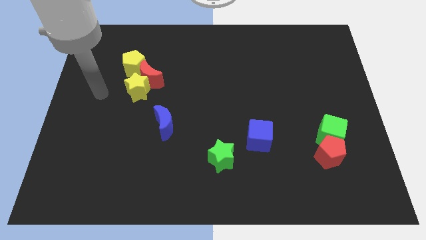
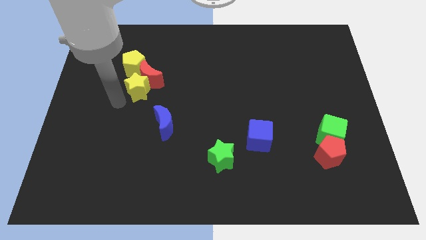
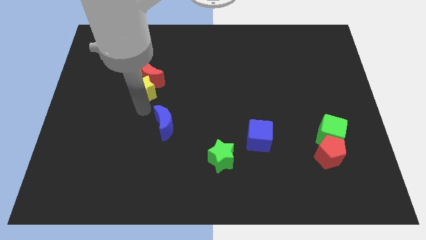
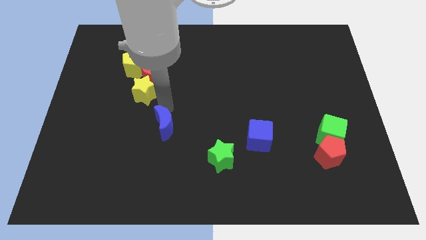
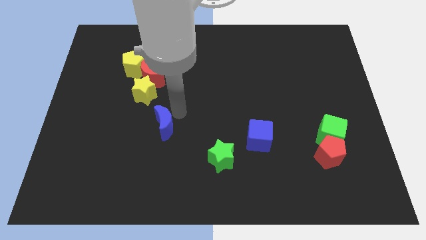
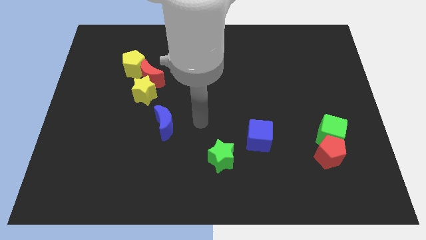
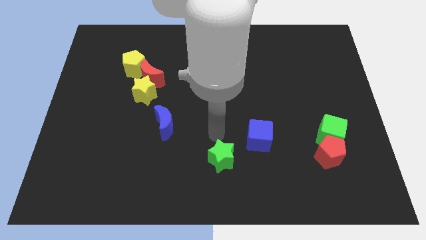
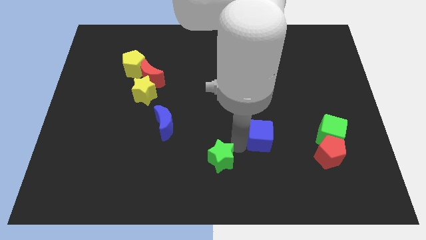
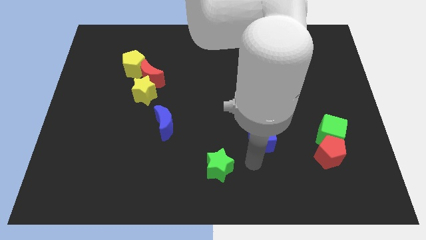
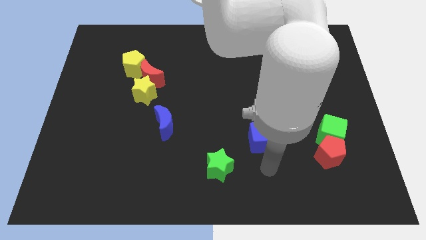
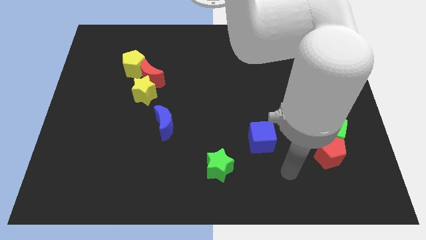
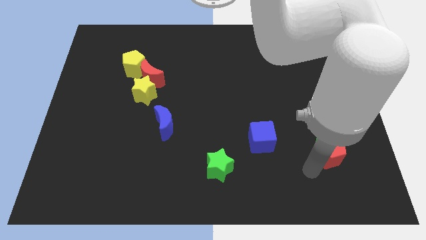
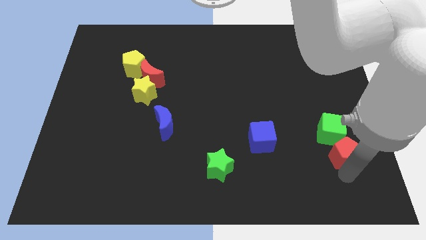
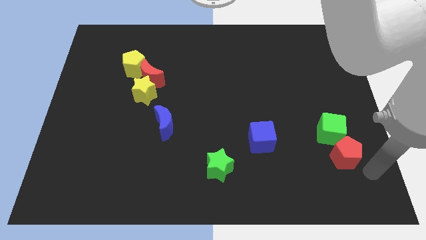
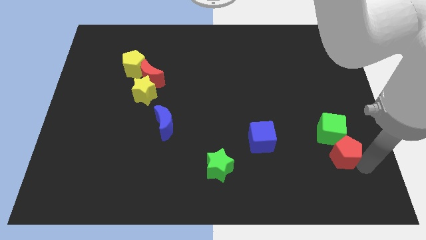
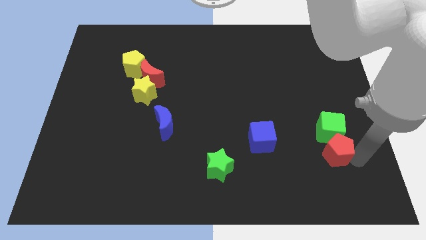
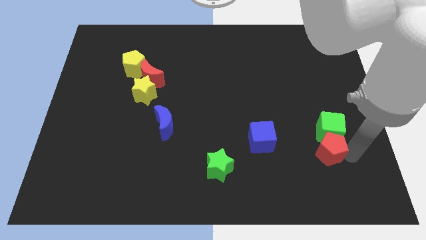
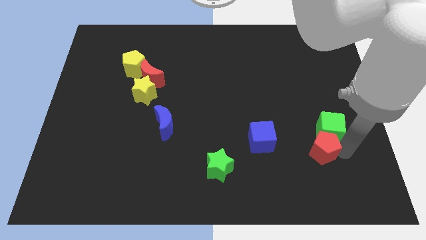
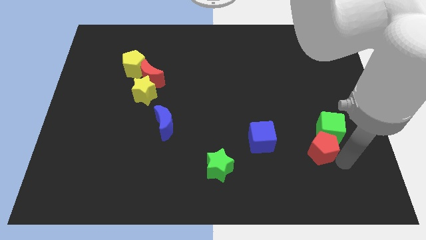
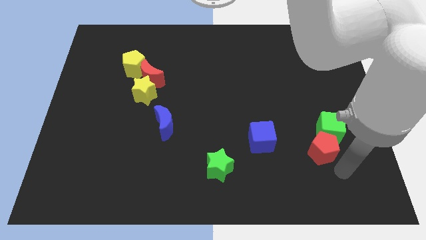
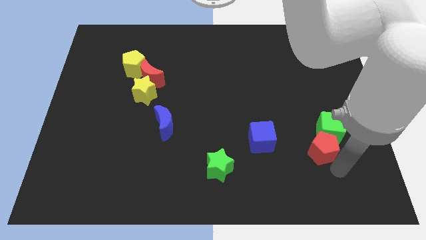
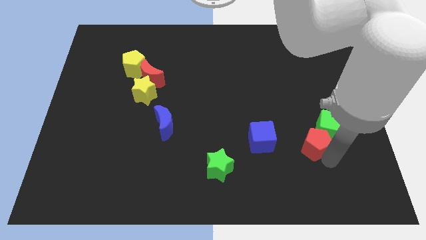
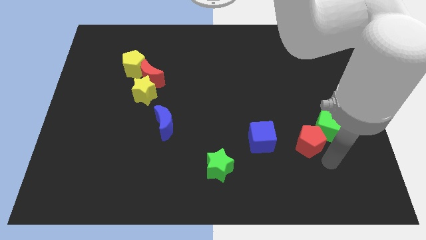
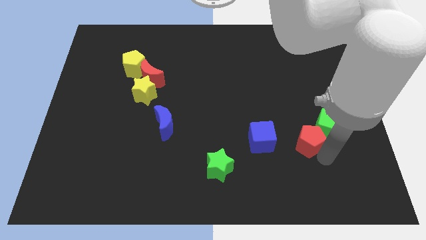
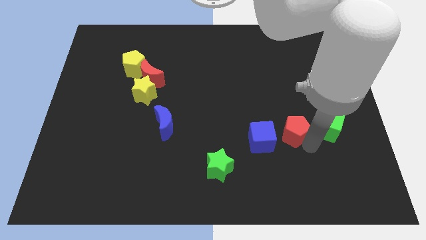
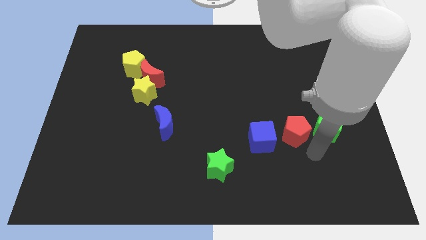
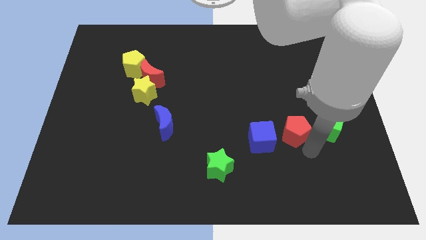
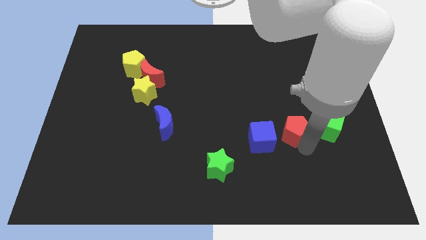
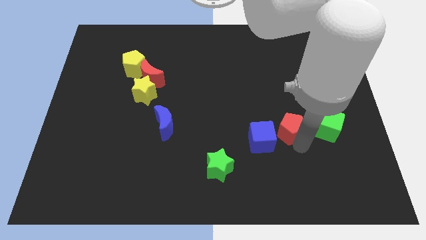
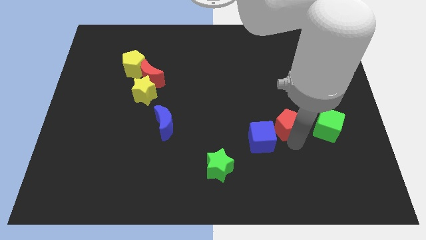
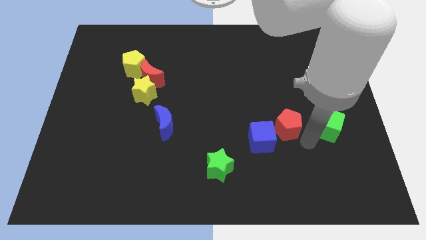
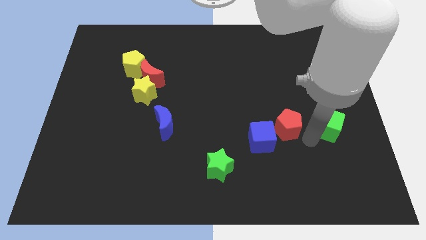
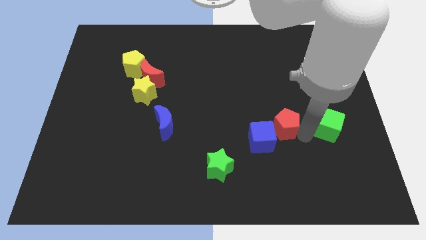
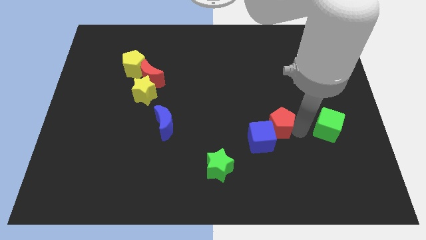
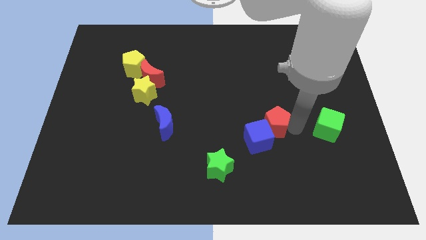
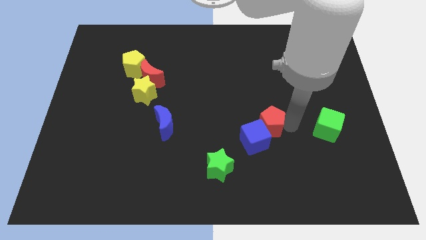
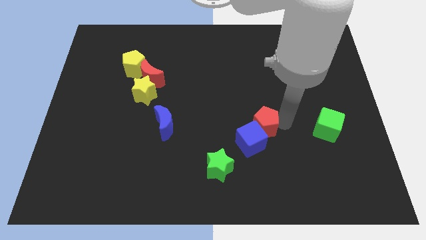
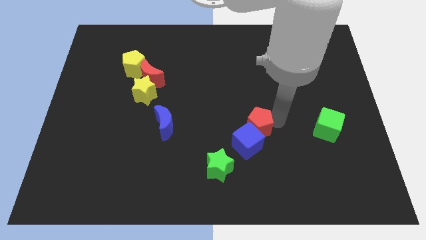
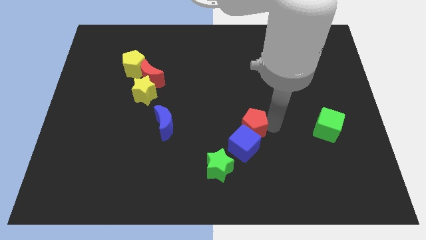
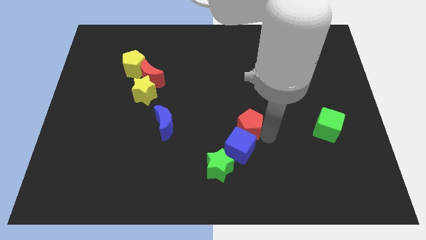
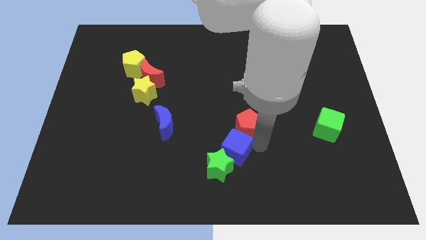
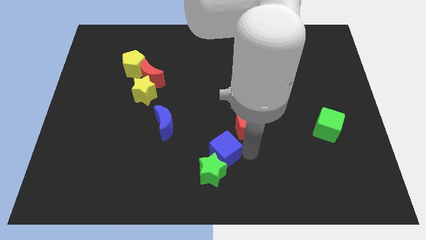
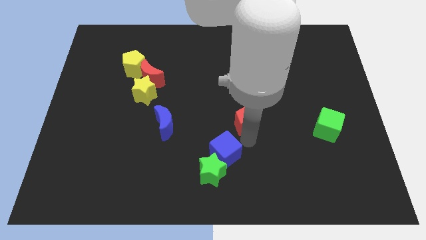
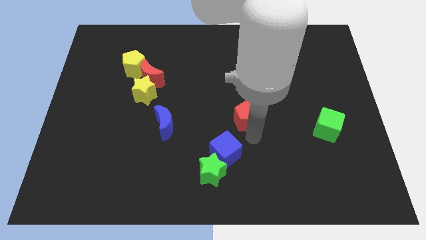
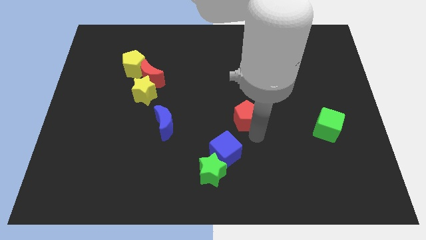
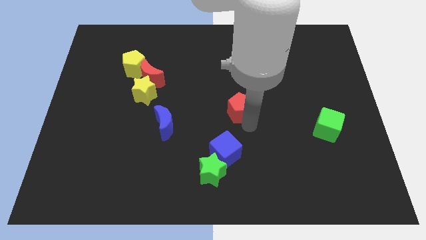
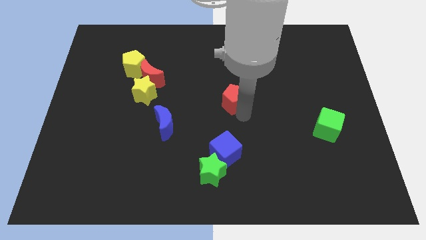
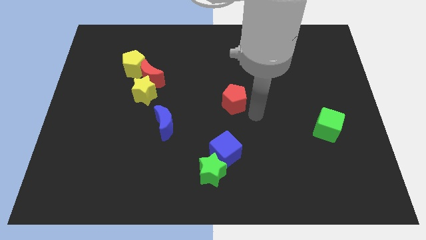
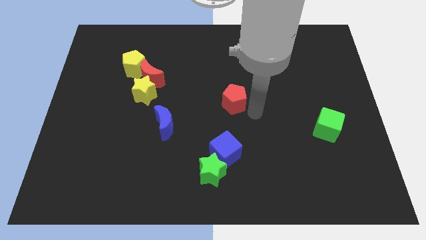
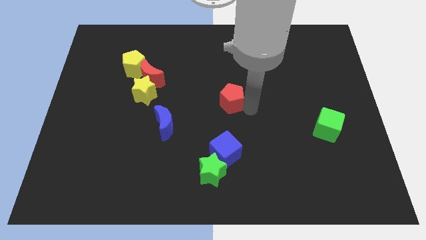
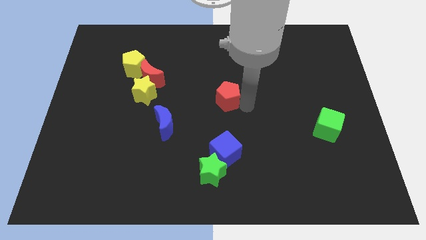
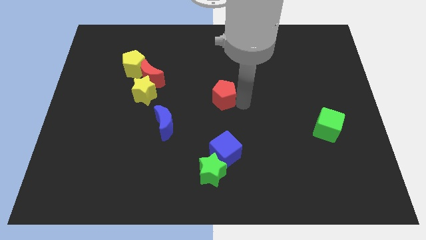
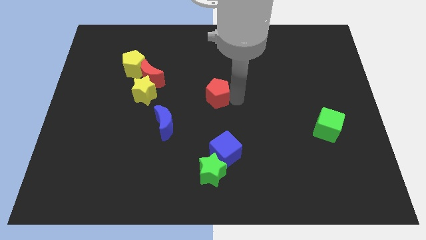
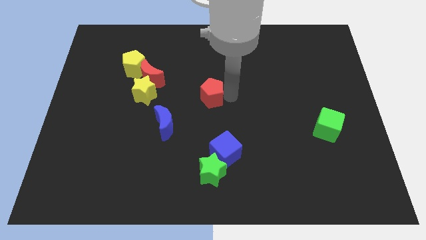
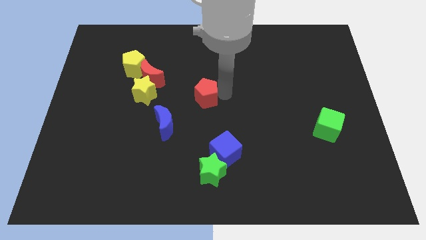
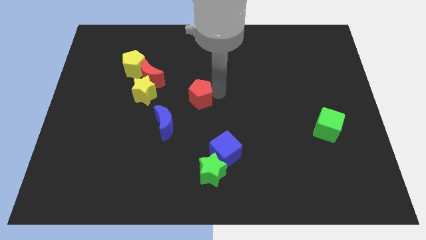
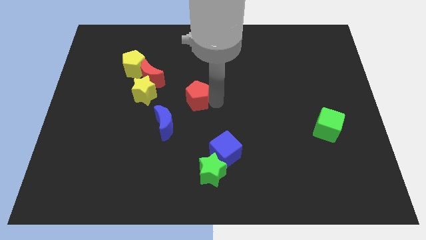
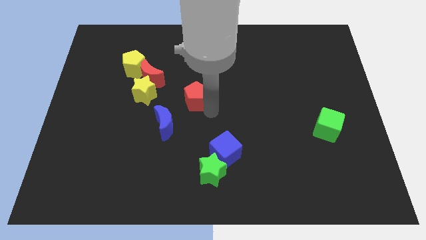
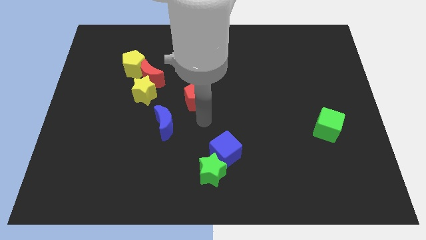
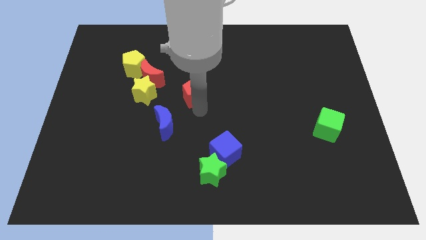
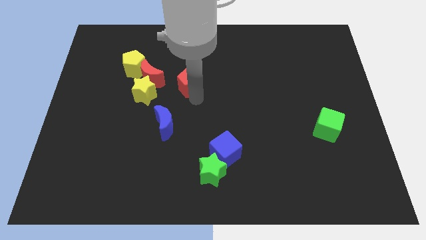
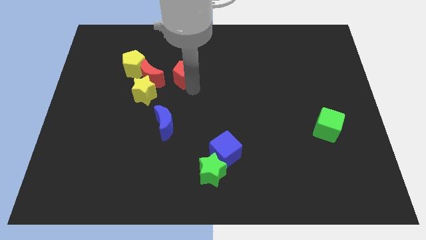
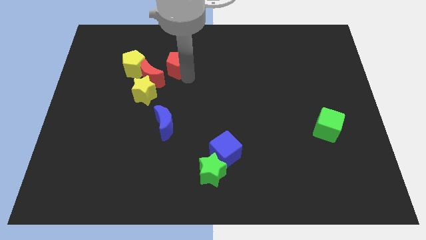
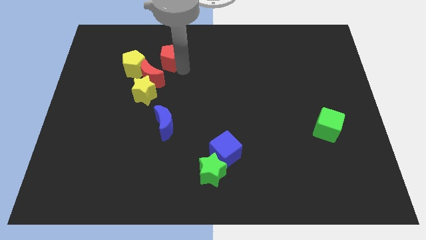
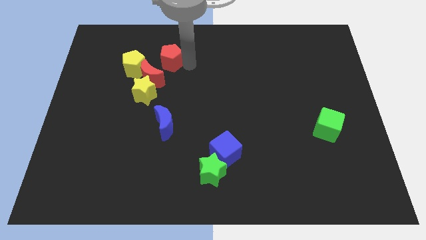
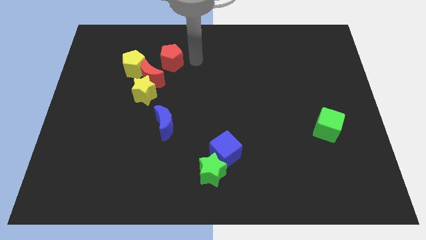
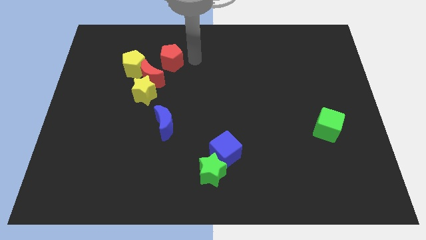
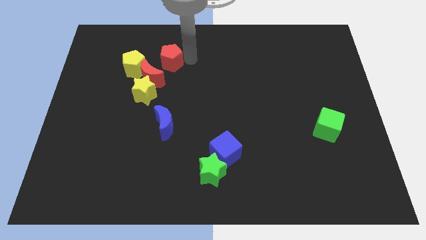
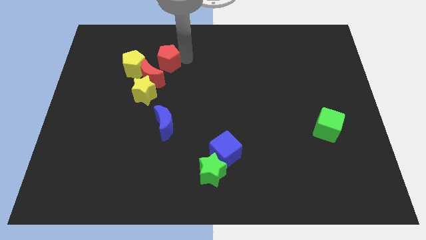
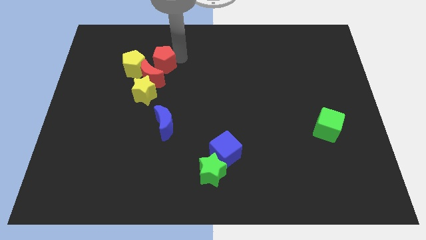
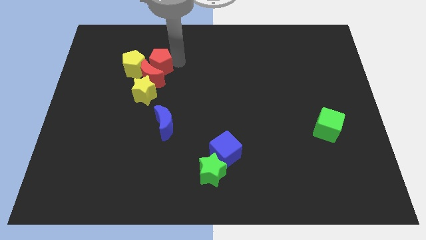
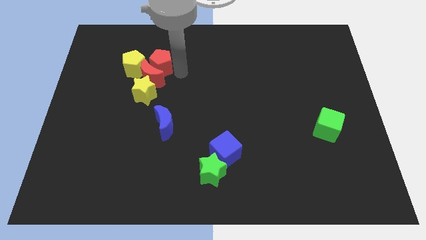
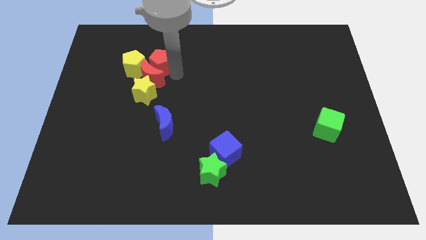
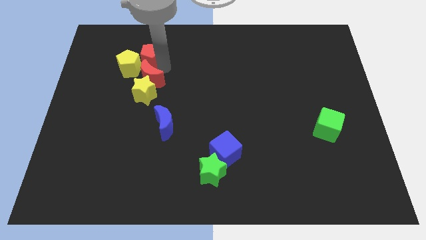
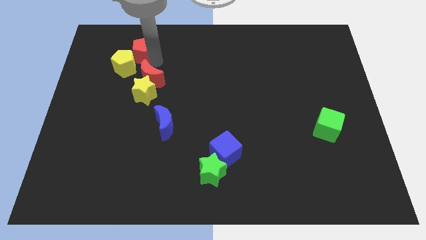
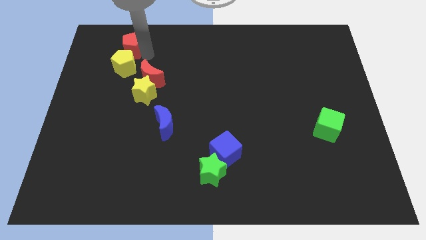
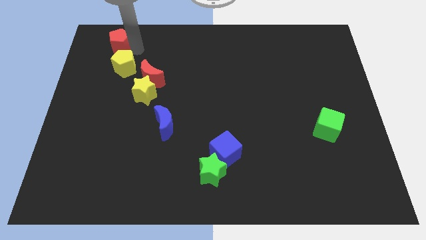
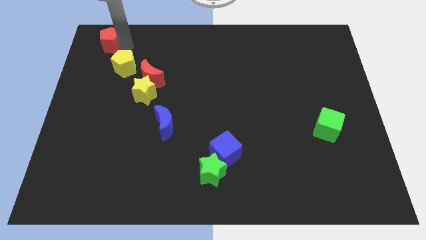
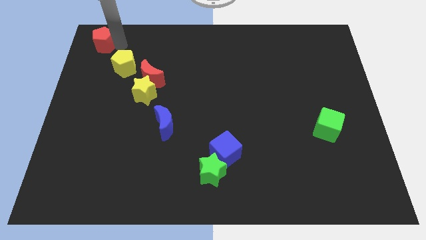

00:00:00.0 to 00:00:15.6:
slide the red pentagon to the upper left corner
